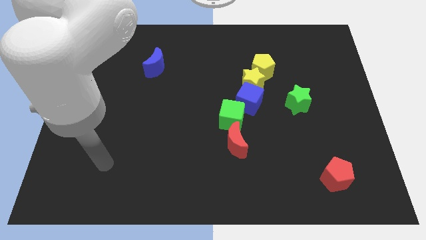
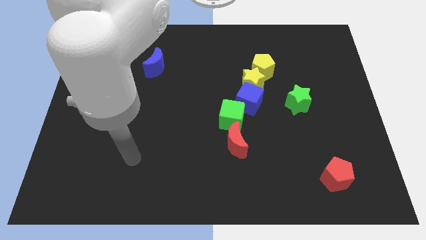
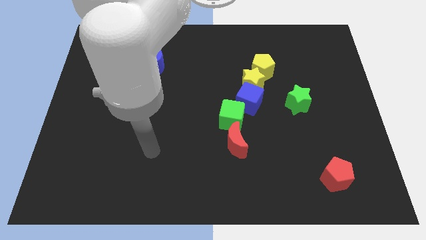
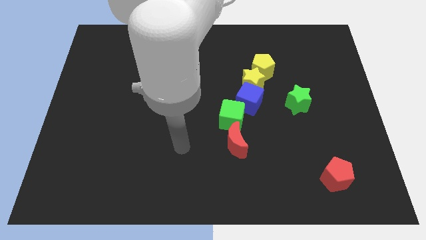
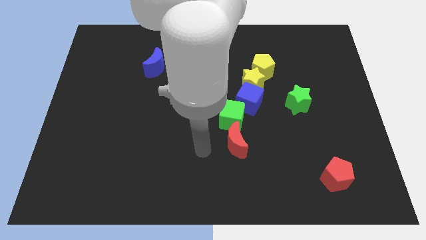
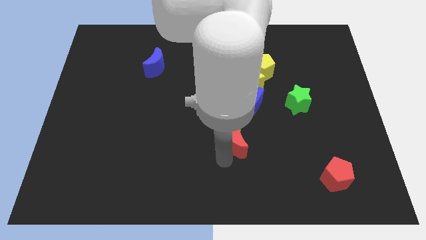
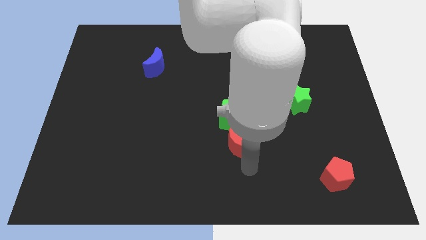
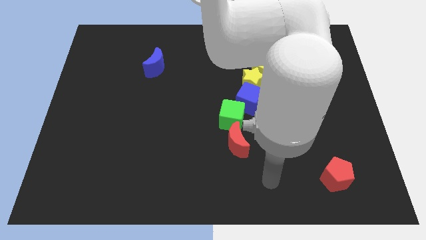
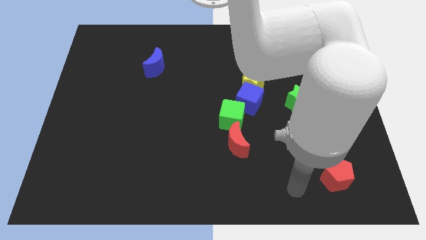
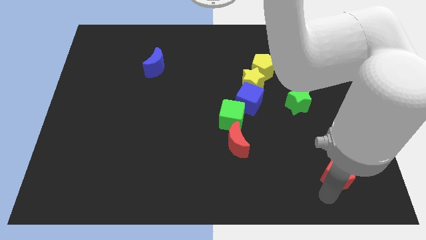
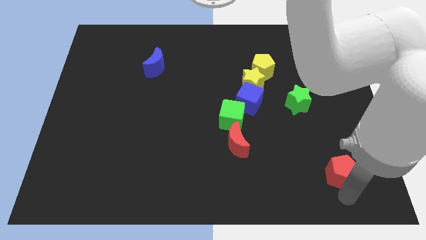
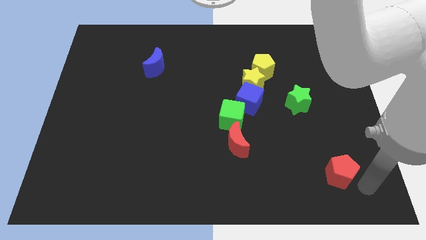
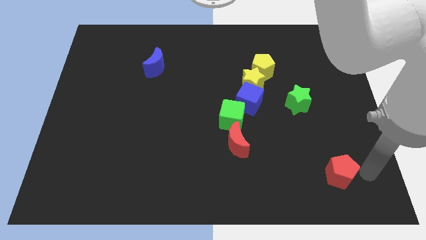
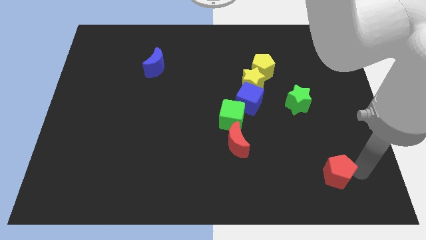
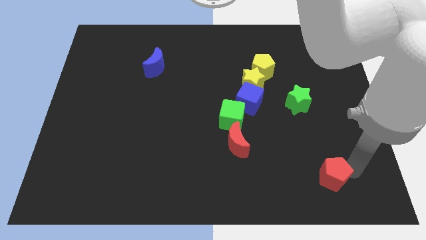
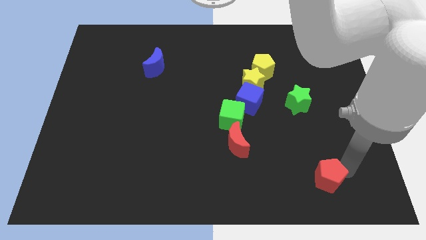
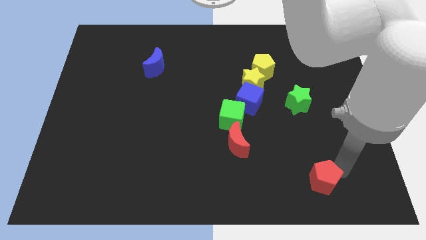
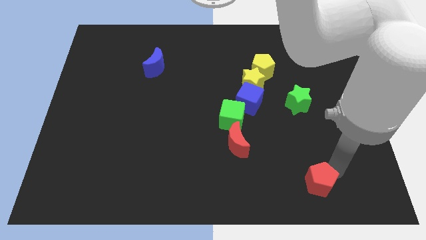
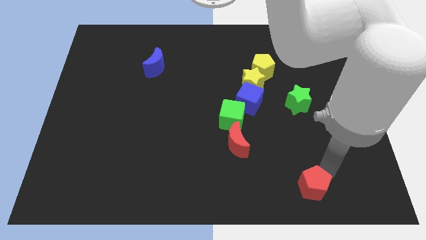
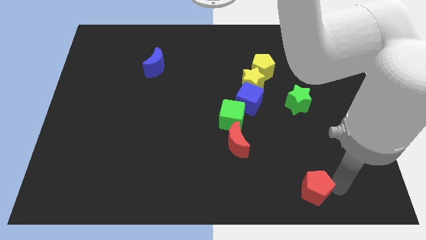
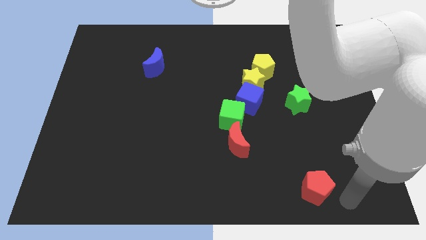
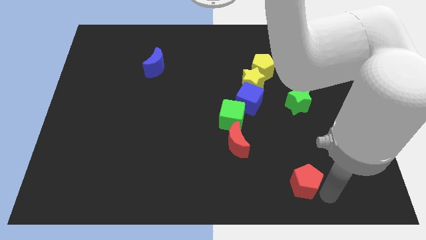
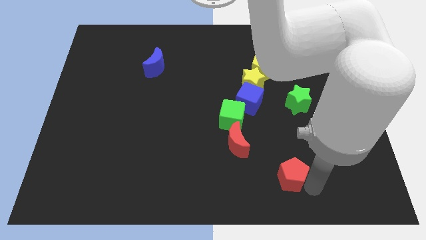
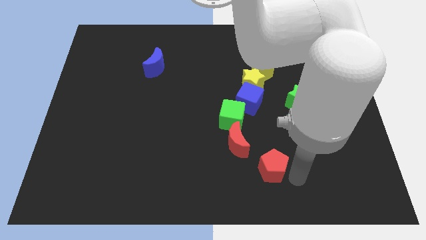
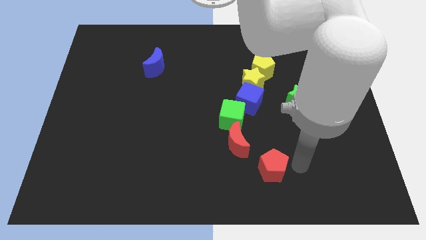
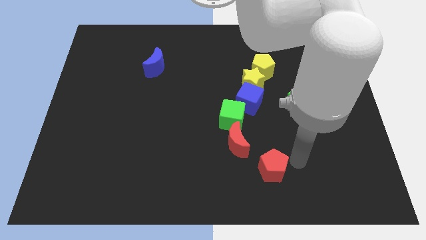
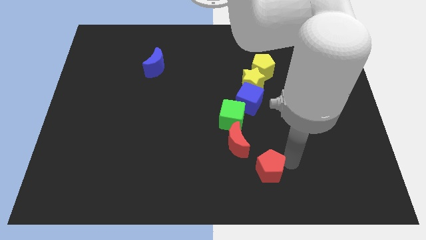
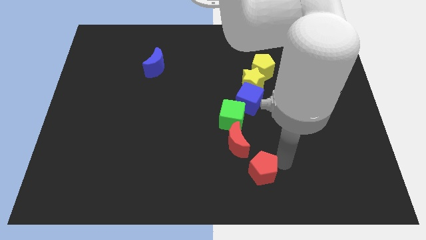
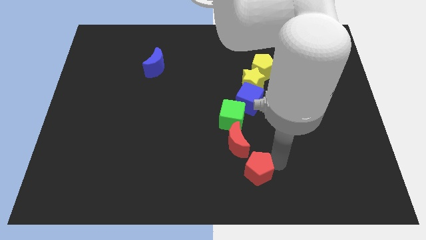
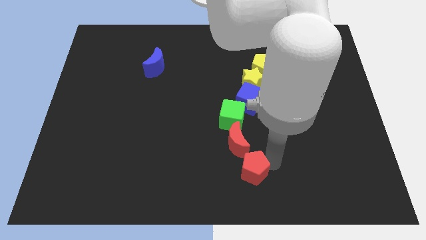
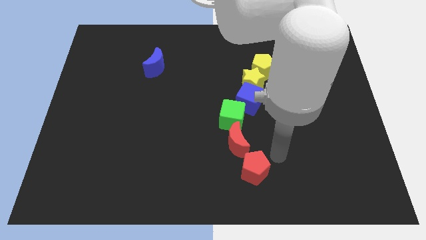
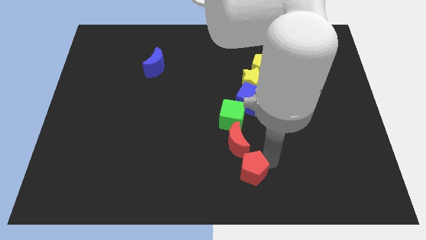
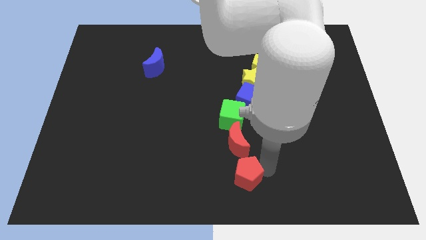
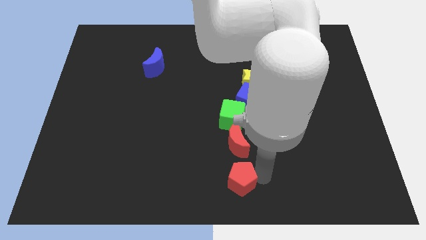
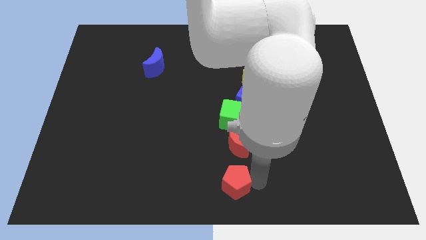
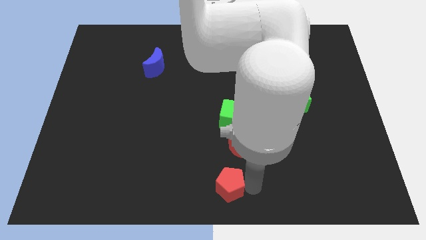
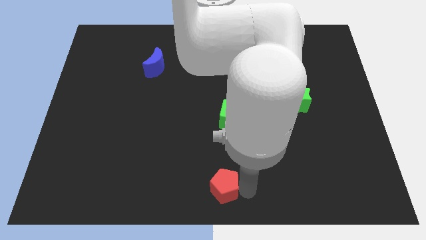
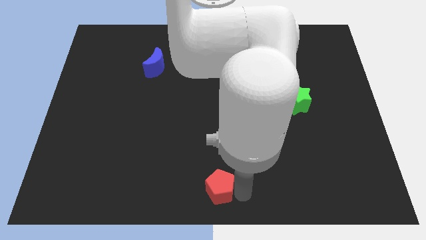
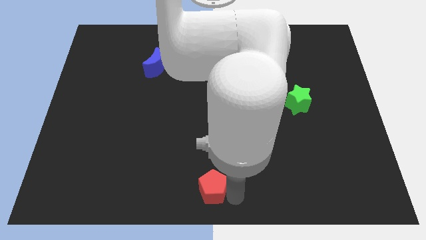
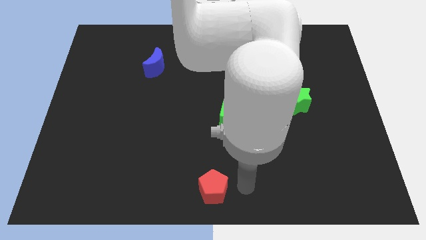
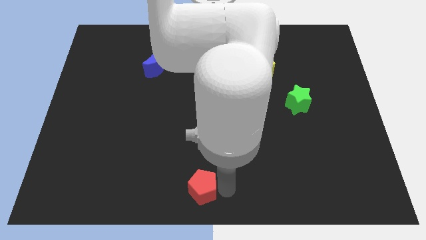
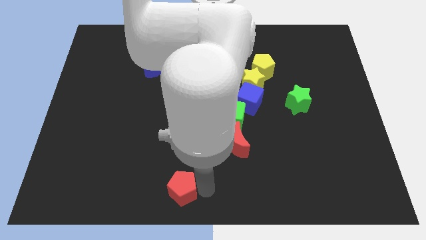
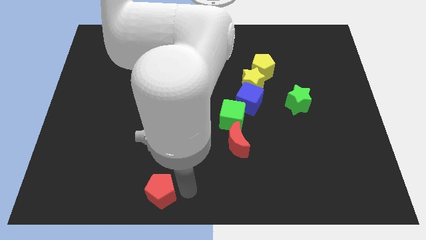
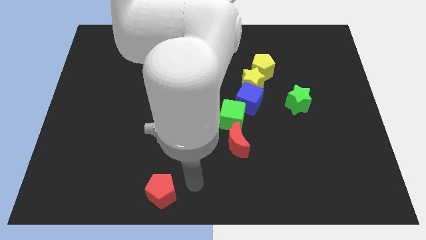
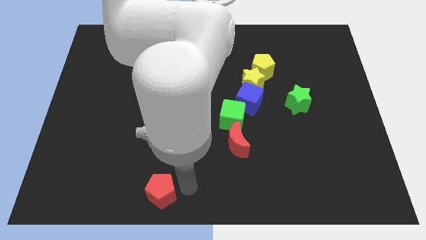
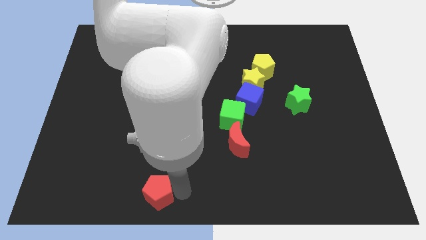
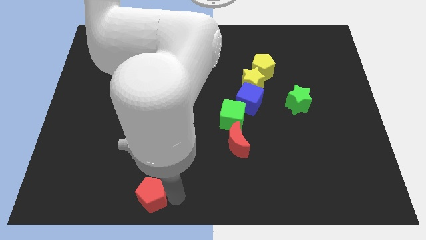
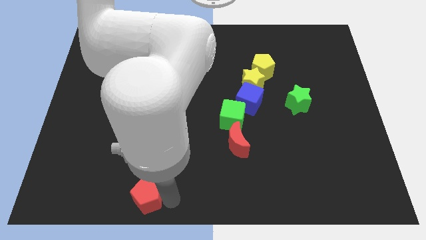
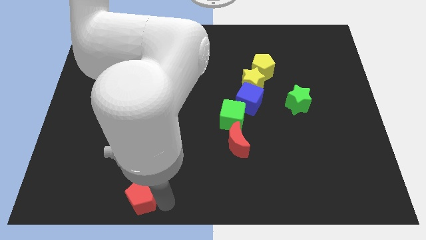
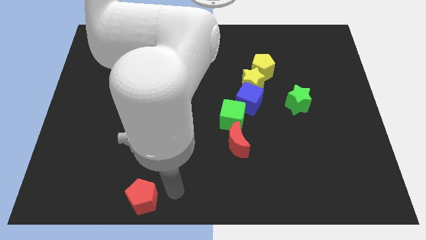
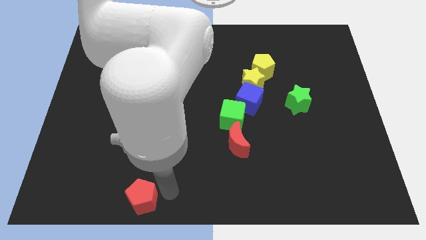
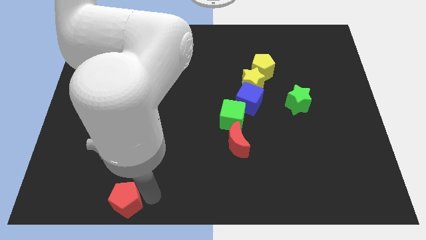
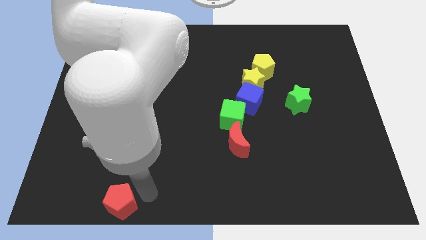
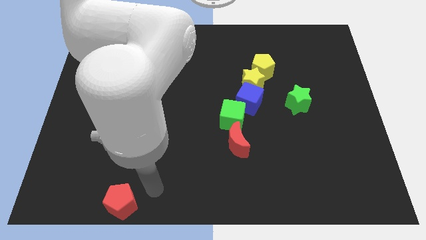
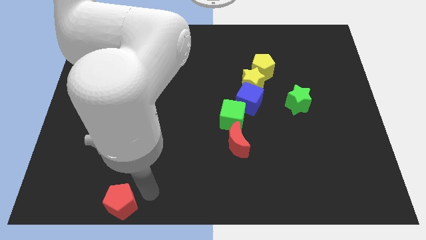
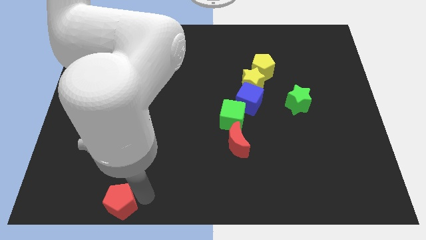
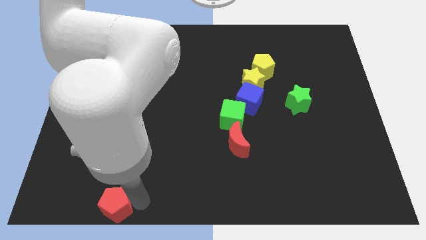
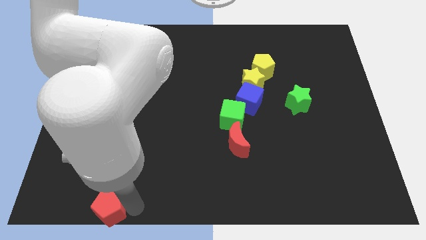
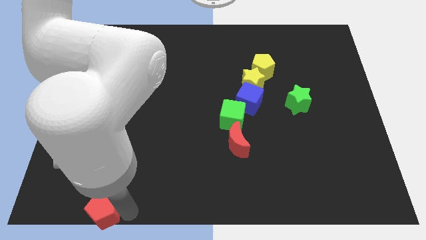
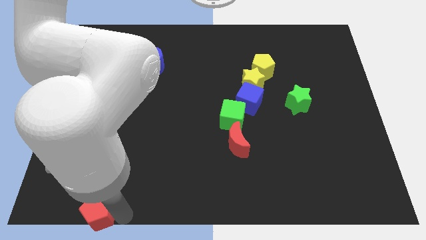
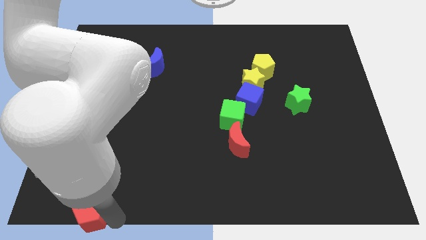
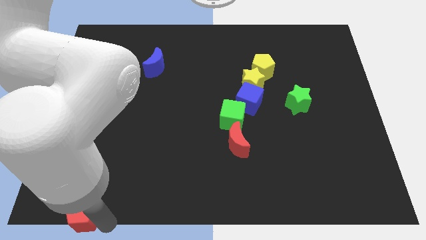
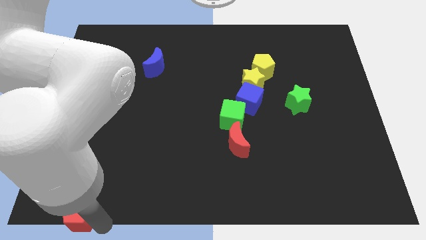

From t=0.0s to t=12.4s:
put the red pentagon to the bottom left
